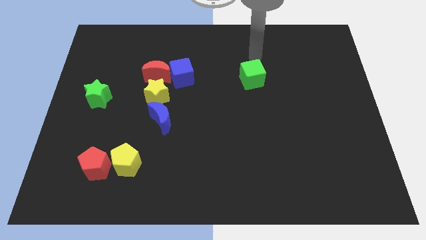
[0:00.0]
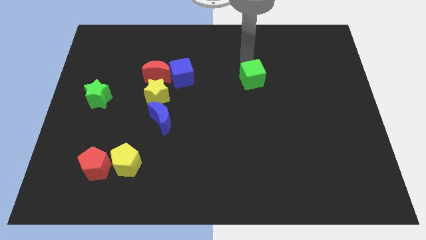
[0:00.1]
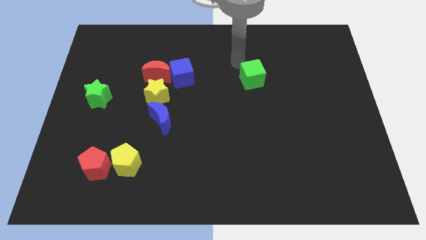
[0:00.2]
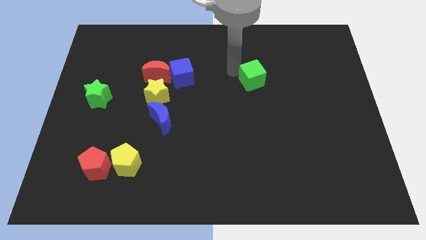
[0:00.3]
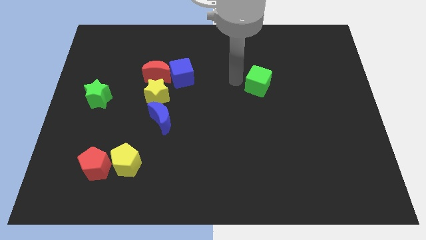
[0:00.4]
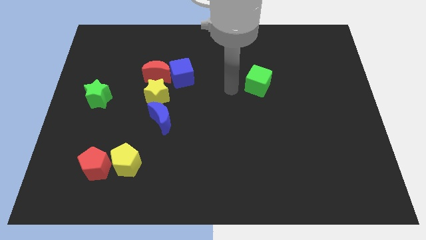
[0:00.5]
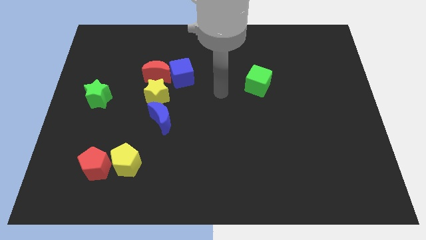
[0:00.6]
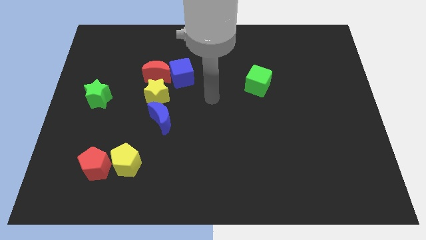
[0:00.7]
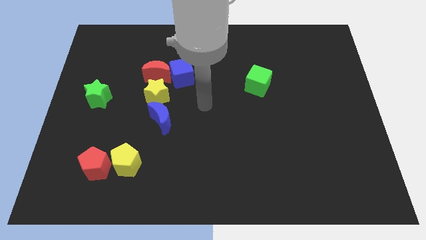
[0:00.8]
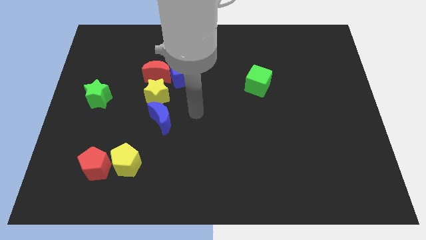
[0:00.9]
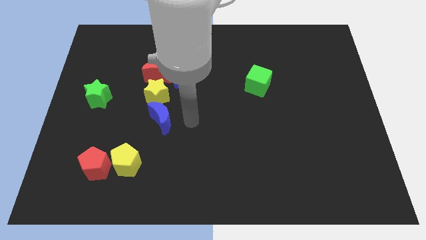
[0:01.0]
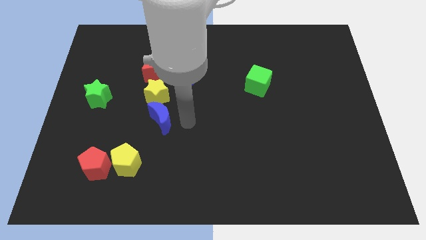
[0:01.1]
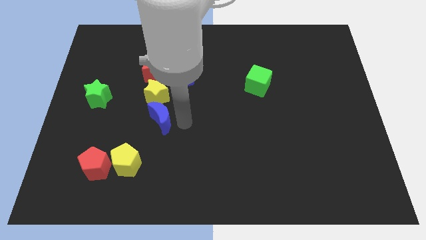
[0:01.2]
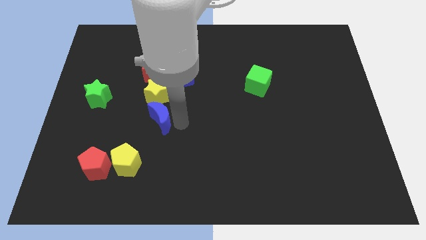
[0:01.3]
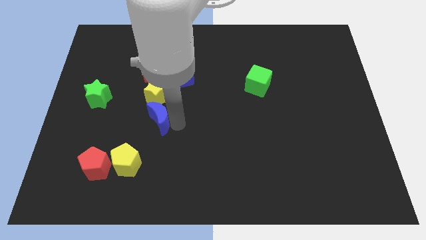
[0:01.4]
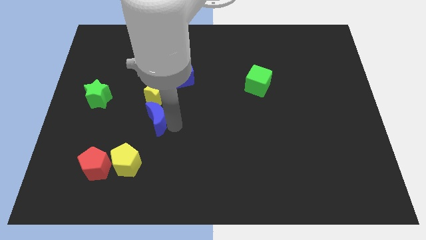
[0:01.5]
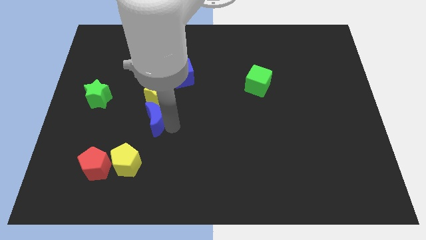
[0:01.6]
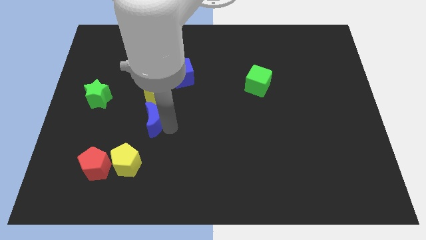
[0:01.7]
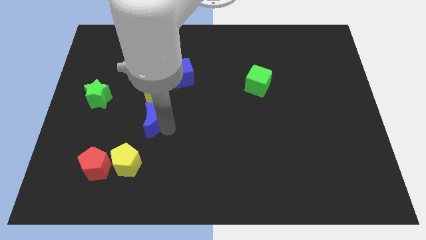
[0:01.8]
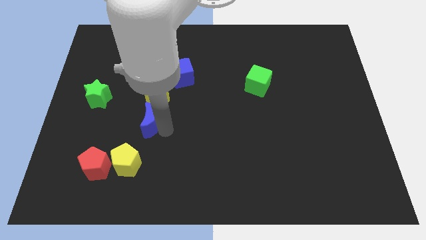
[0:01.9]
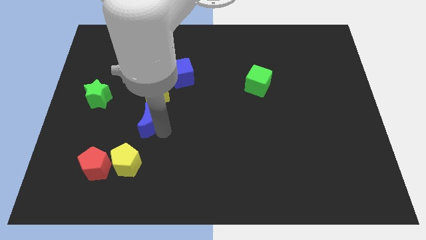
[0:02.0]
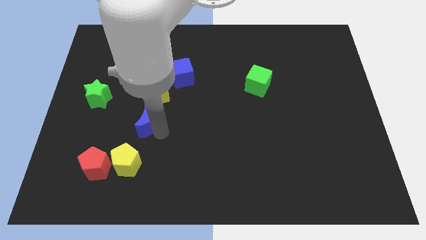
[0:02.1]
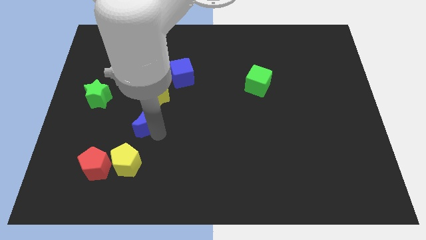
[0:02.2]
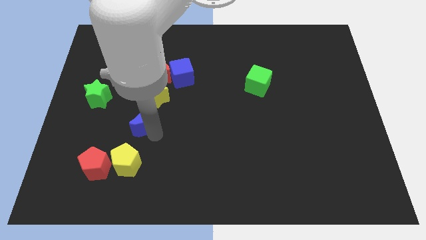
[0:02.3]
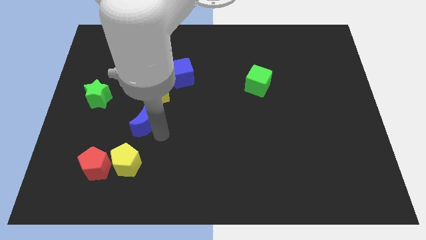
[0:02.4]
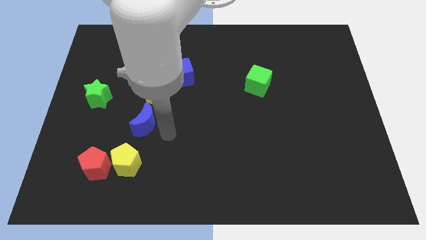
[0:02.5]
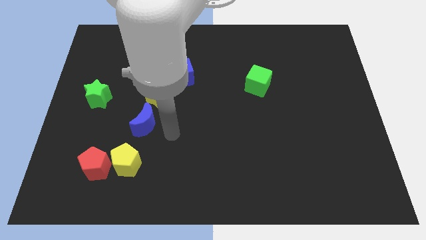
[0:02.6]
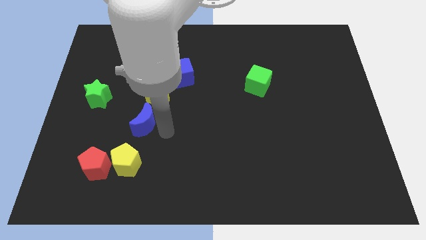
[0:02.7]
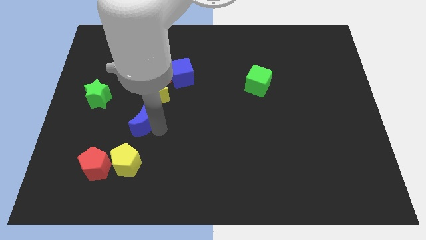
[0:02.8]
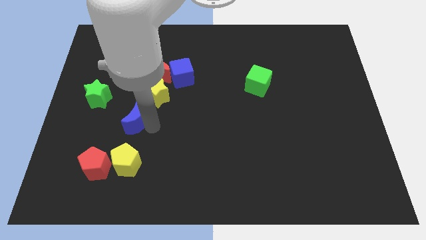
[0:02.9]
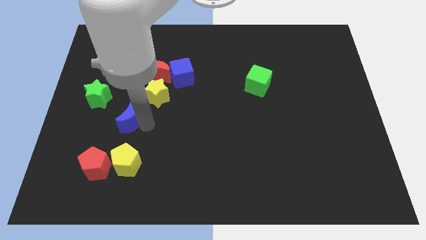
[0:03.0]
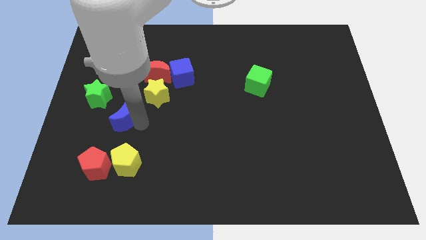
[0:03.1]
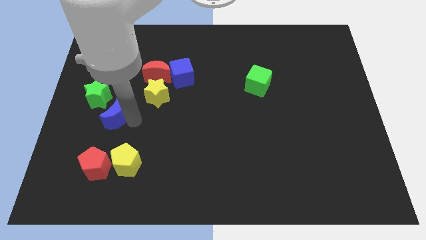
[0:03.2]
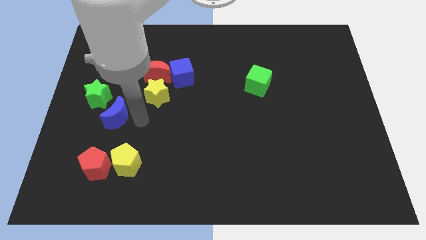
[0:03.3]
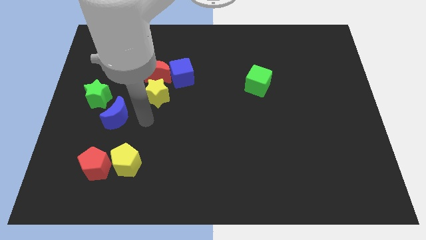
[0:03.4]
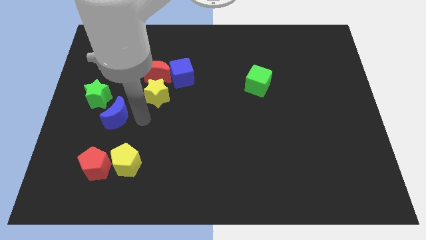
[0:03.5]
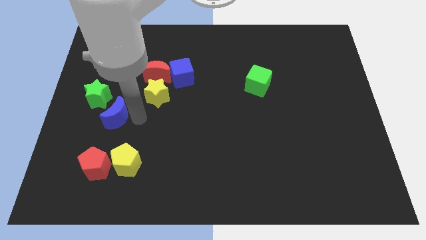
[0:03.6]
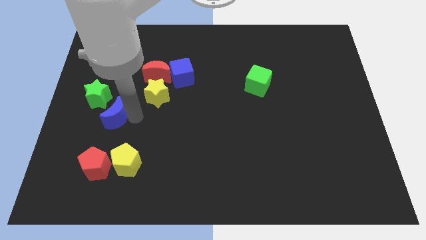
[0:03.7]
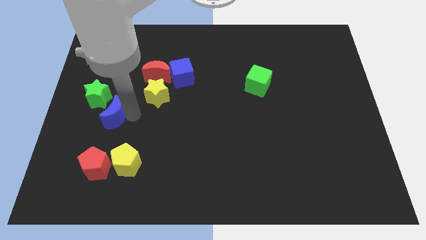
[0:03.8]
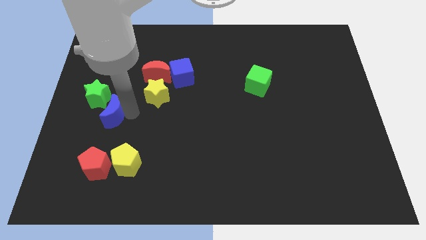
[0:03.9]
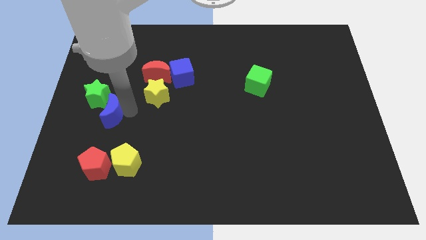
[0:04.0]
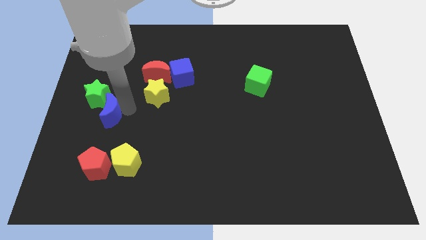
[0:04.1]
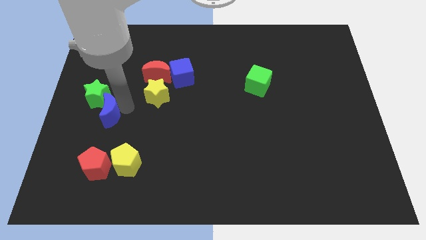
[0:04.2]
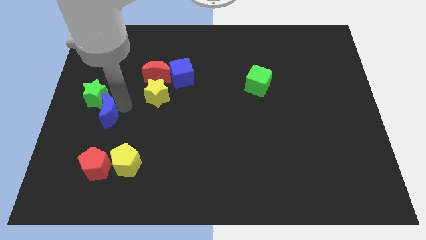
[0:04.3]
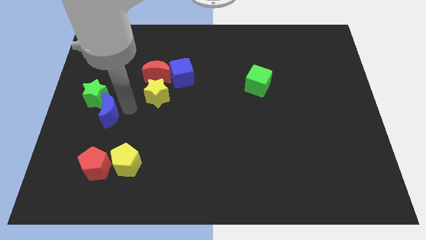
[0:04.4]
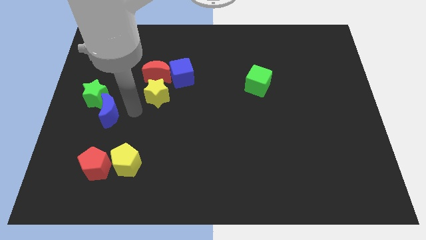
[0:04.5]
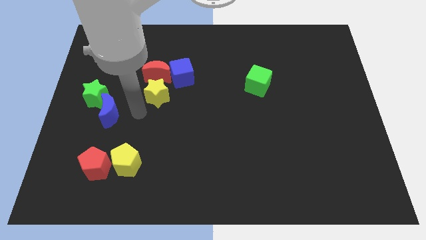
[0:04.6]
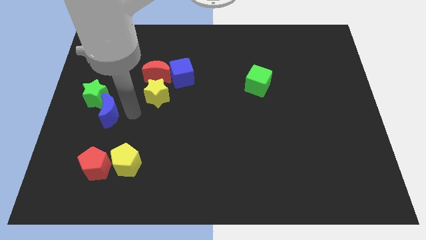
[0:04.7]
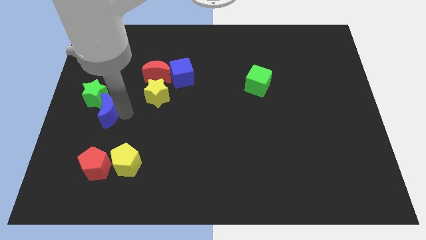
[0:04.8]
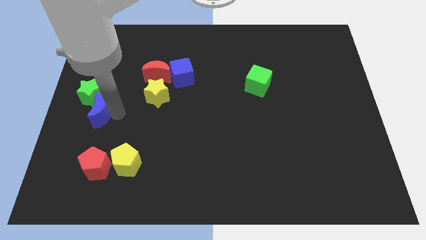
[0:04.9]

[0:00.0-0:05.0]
put the blue moon to the left side

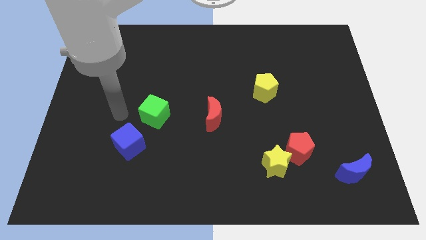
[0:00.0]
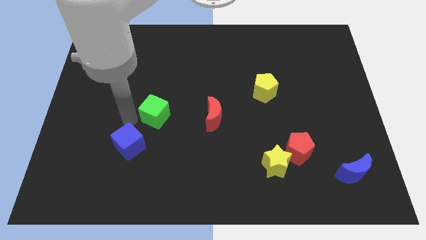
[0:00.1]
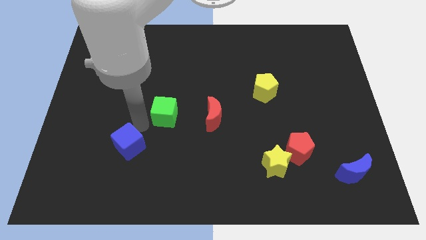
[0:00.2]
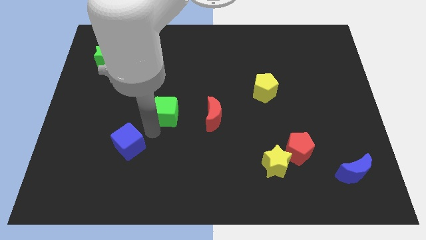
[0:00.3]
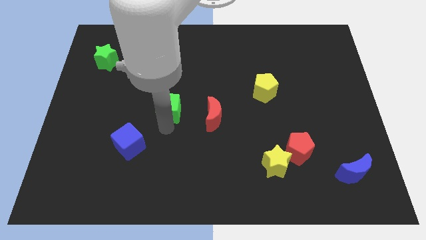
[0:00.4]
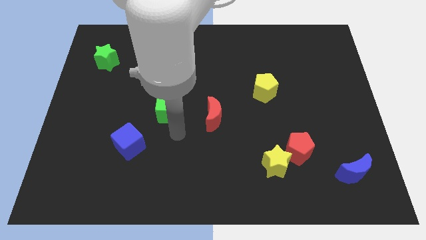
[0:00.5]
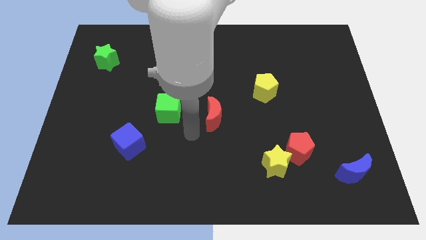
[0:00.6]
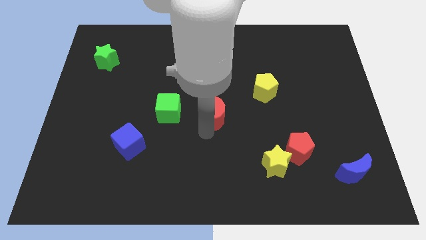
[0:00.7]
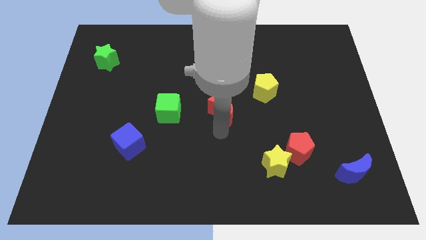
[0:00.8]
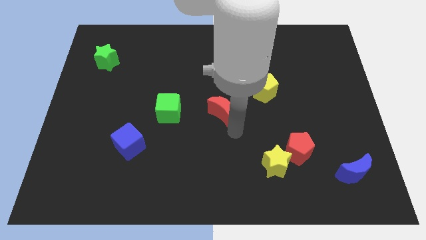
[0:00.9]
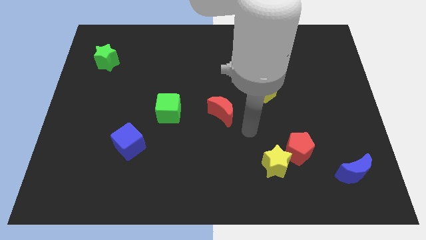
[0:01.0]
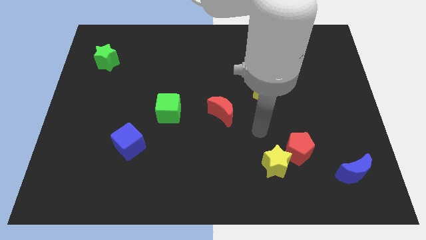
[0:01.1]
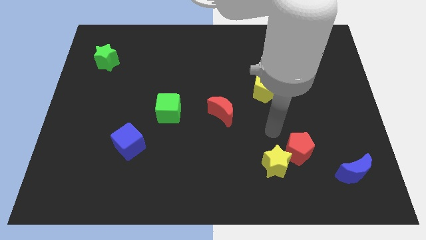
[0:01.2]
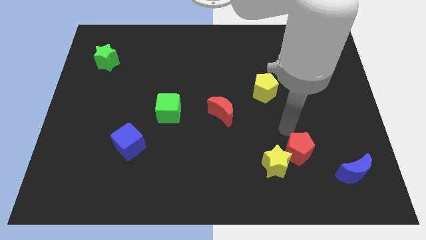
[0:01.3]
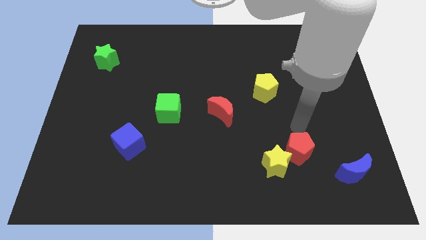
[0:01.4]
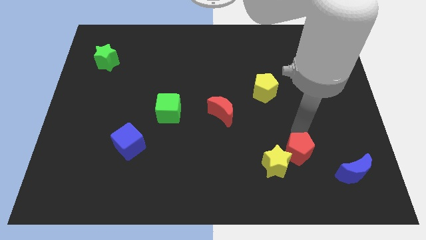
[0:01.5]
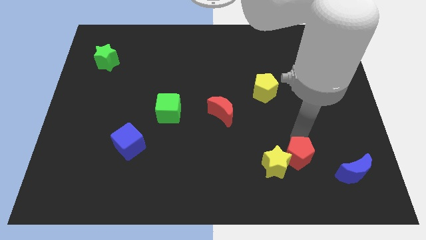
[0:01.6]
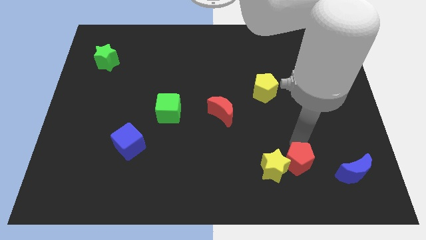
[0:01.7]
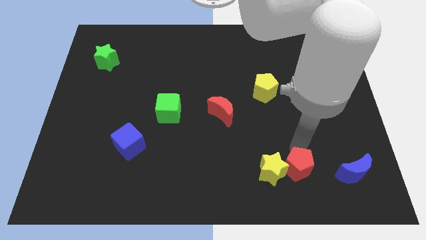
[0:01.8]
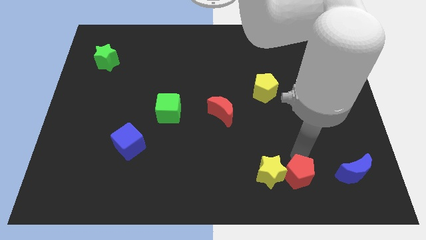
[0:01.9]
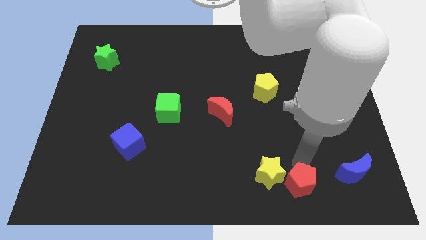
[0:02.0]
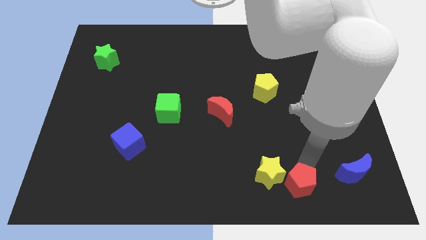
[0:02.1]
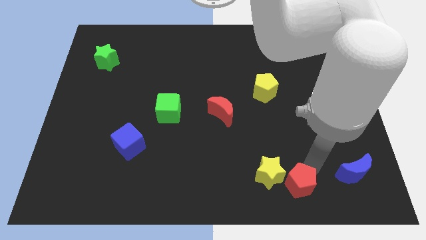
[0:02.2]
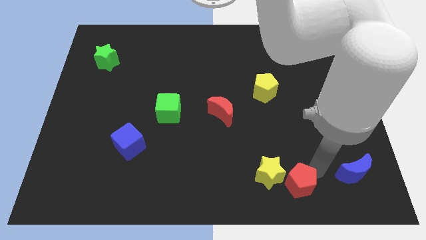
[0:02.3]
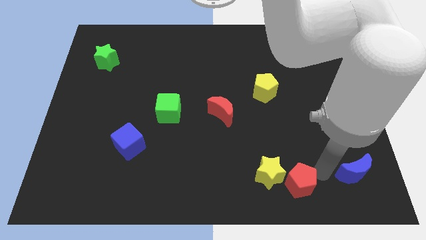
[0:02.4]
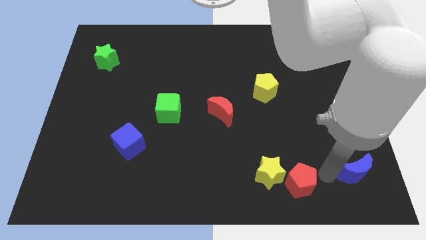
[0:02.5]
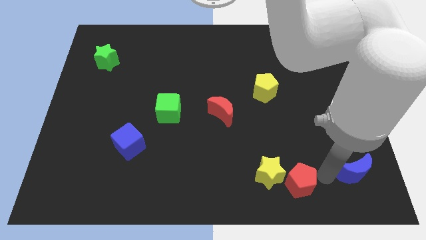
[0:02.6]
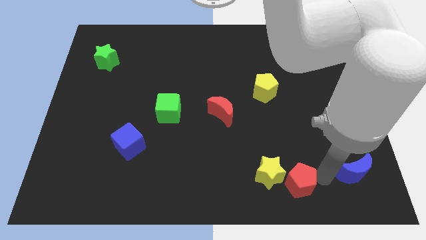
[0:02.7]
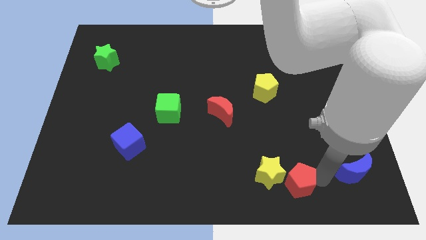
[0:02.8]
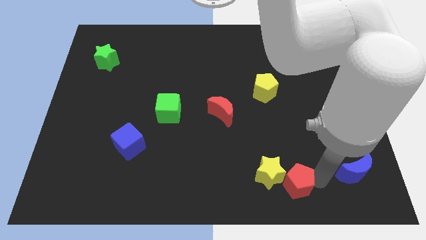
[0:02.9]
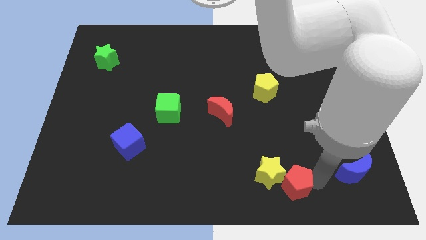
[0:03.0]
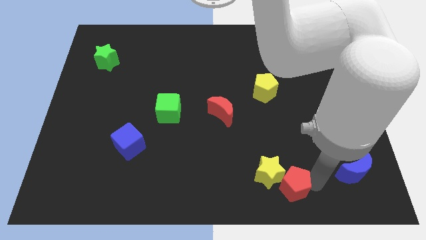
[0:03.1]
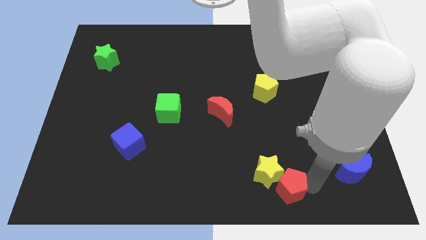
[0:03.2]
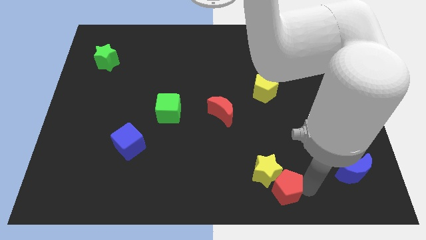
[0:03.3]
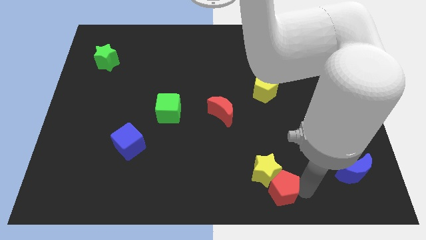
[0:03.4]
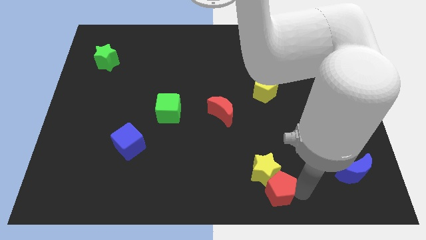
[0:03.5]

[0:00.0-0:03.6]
move the red pentagon to the bottom
